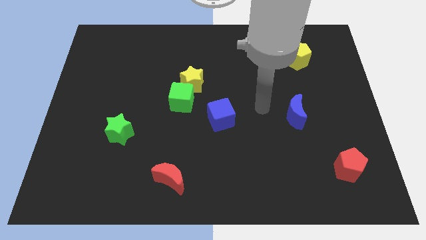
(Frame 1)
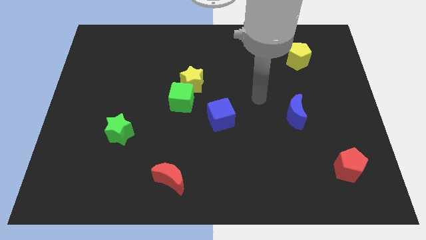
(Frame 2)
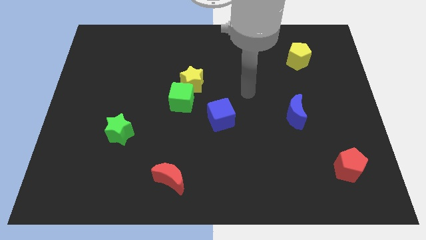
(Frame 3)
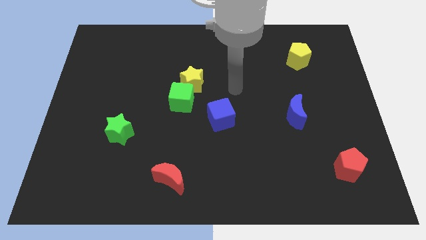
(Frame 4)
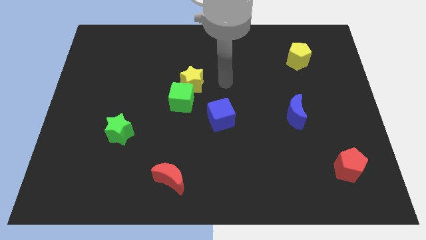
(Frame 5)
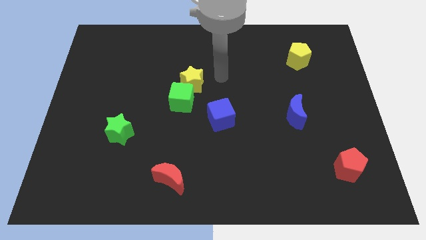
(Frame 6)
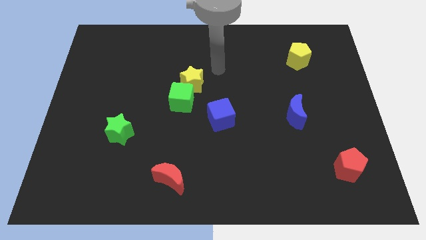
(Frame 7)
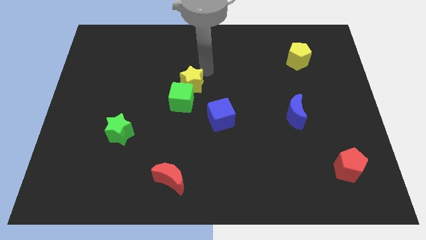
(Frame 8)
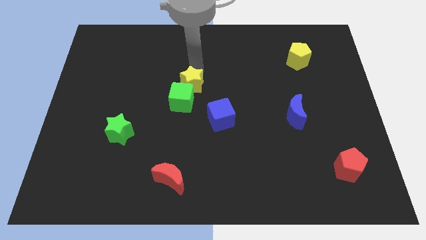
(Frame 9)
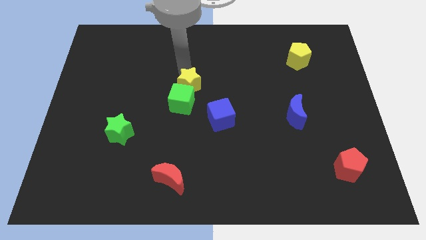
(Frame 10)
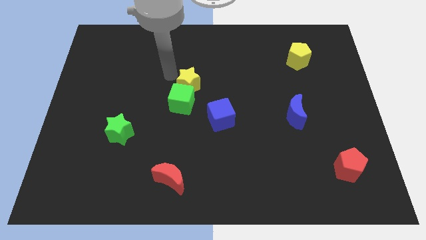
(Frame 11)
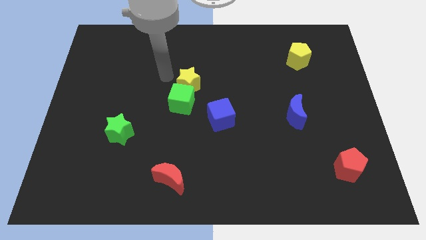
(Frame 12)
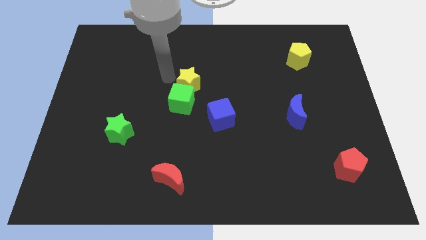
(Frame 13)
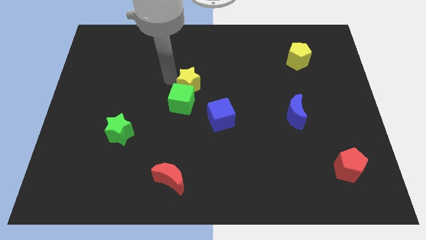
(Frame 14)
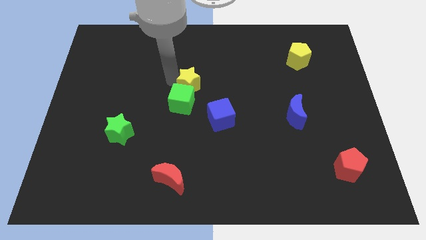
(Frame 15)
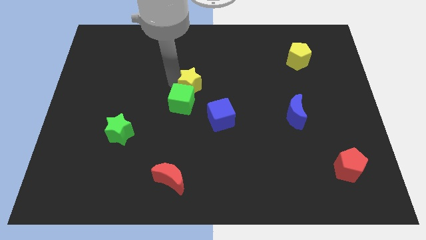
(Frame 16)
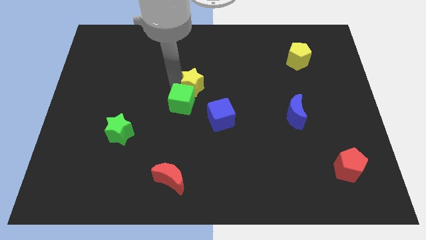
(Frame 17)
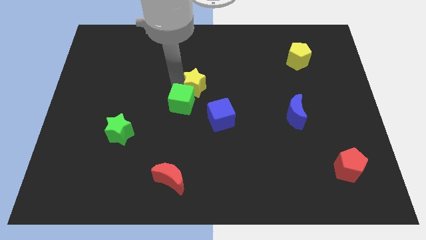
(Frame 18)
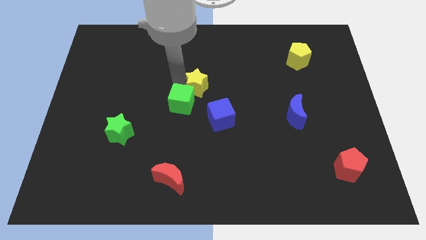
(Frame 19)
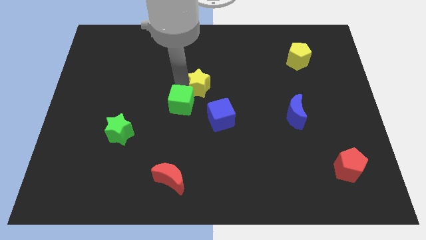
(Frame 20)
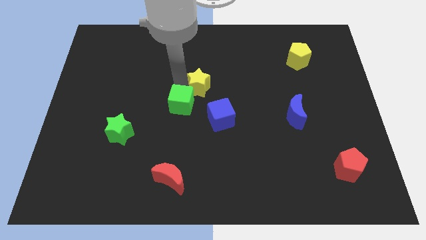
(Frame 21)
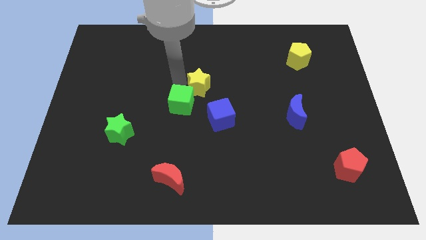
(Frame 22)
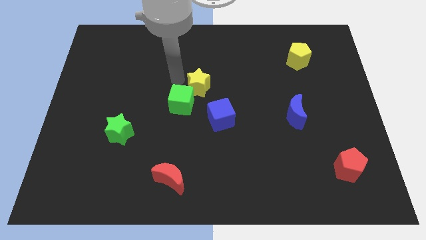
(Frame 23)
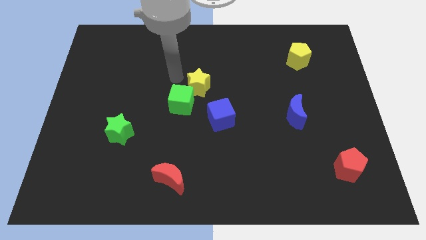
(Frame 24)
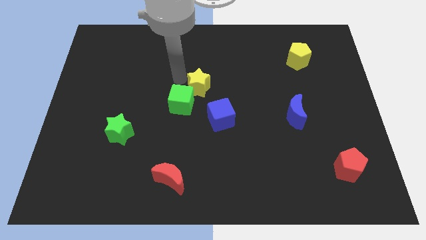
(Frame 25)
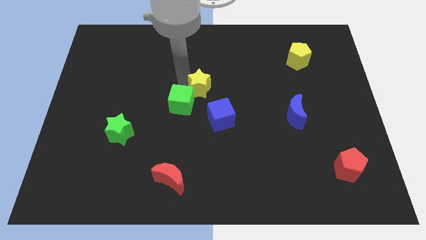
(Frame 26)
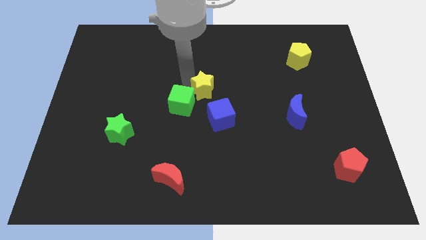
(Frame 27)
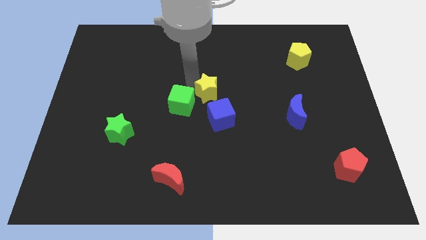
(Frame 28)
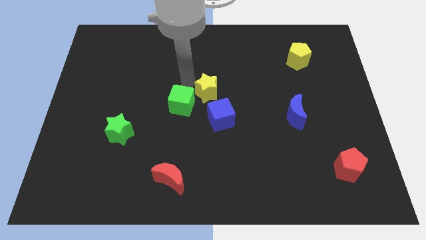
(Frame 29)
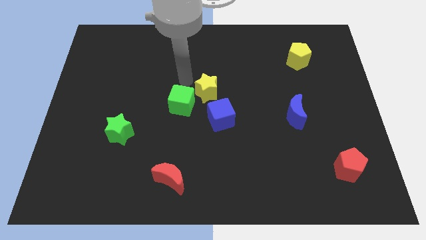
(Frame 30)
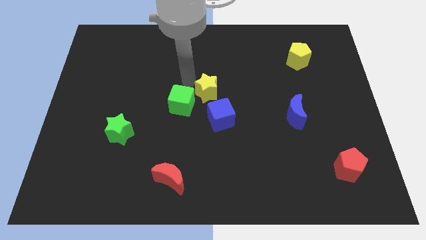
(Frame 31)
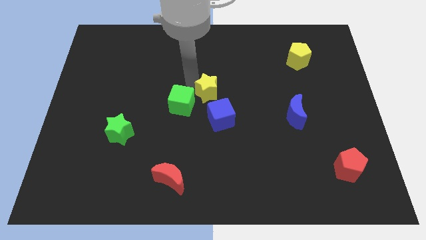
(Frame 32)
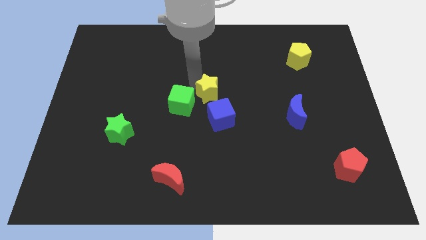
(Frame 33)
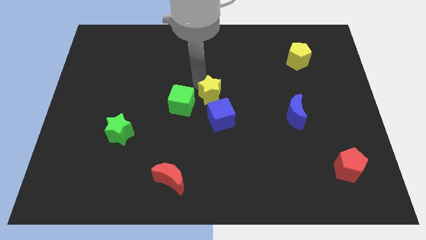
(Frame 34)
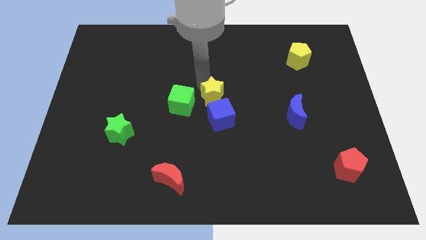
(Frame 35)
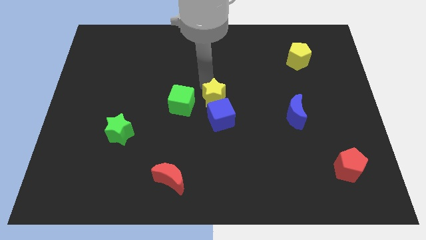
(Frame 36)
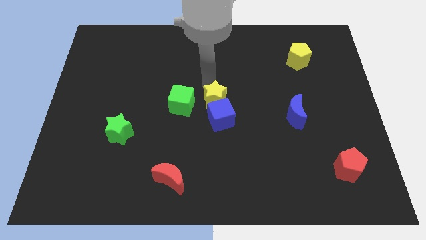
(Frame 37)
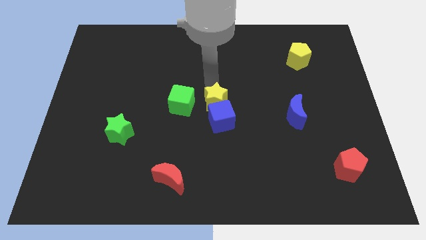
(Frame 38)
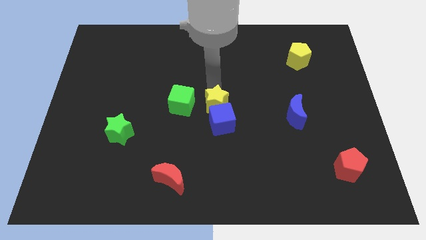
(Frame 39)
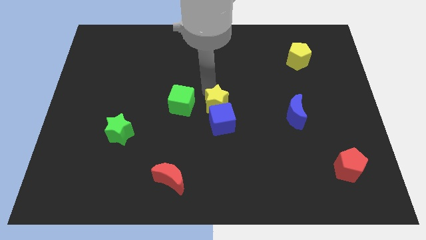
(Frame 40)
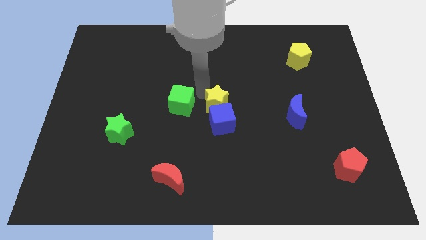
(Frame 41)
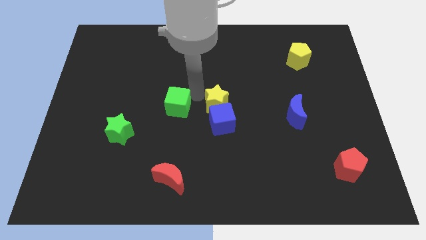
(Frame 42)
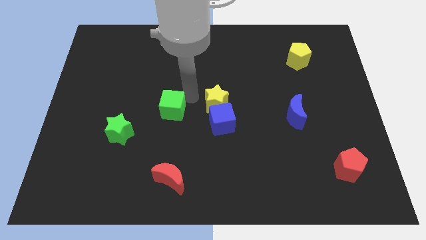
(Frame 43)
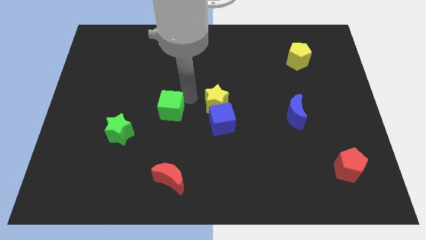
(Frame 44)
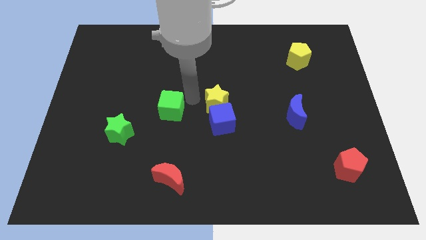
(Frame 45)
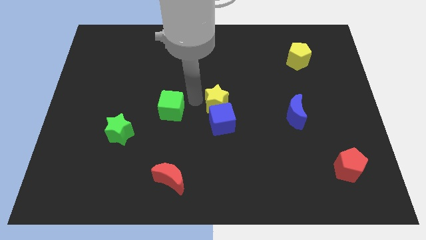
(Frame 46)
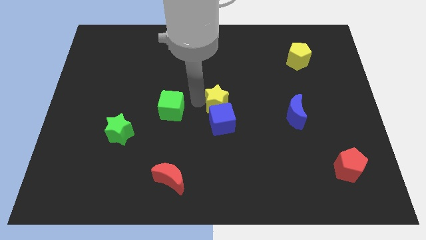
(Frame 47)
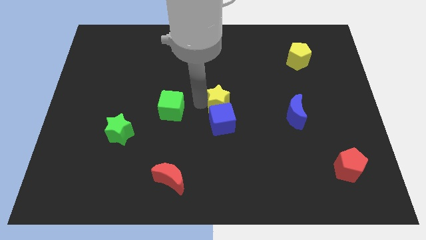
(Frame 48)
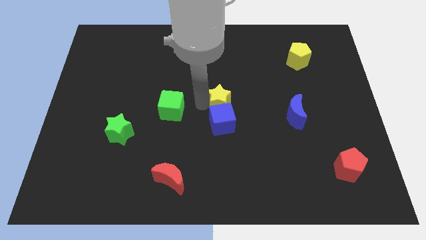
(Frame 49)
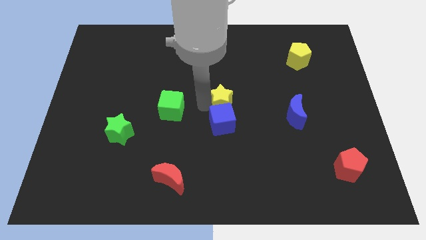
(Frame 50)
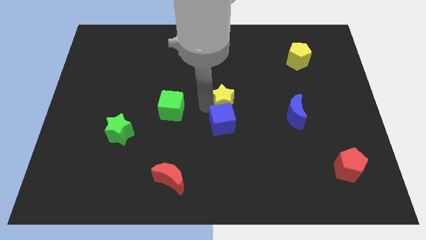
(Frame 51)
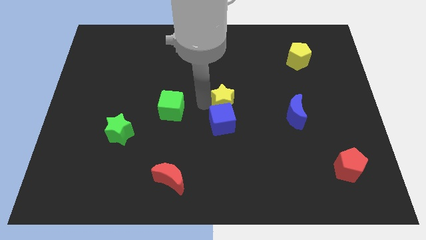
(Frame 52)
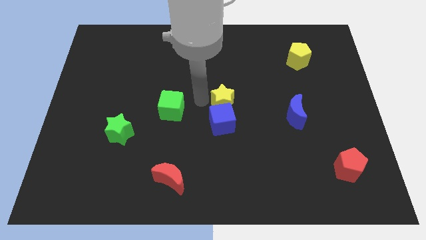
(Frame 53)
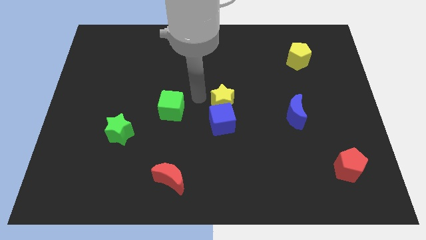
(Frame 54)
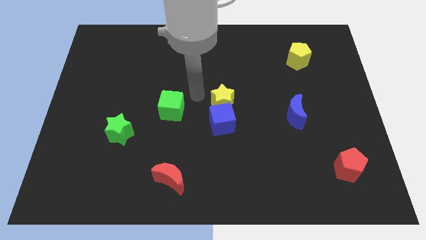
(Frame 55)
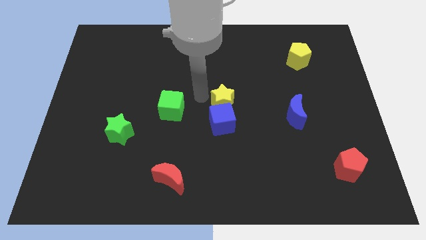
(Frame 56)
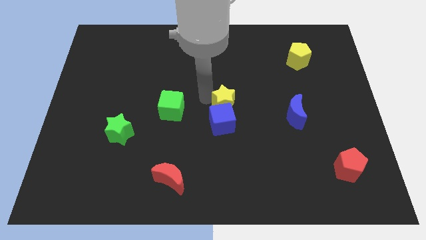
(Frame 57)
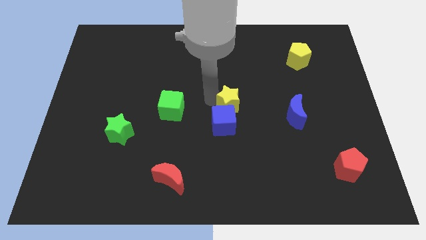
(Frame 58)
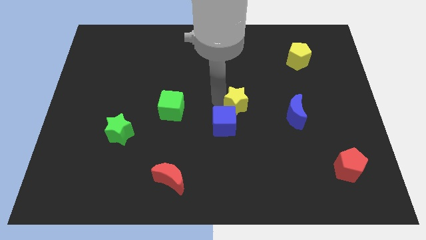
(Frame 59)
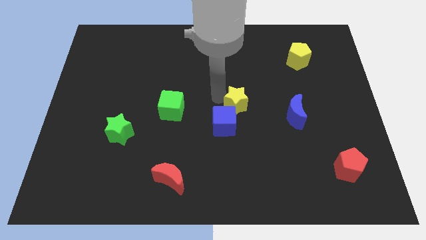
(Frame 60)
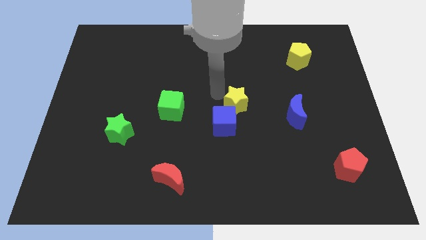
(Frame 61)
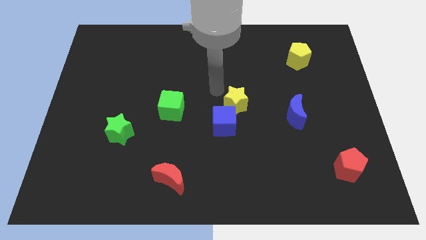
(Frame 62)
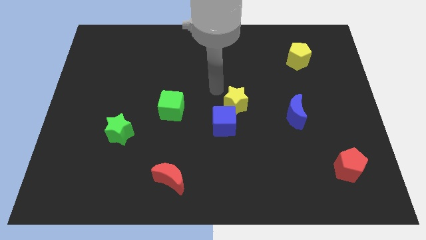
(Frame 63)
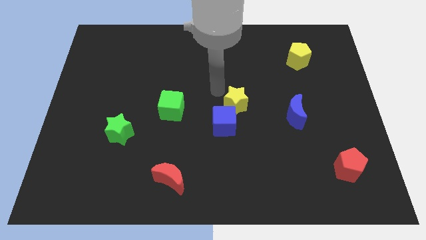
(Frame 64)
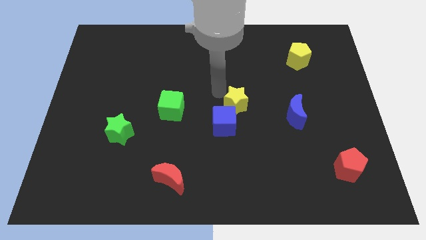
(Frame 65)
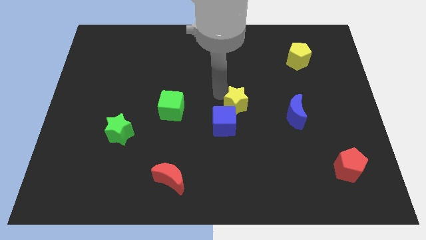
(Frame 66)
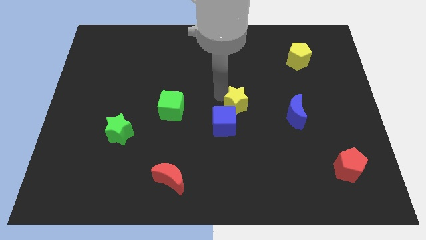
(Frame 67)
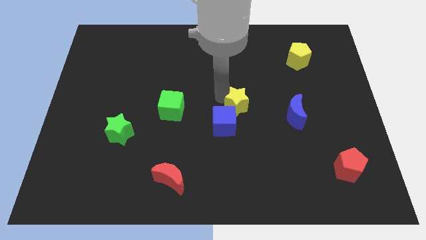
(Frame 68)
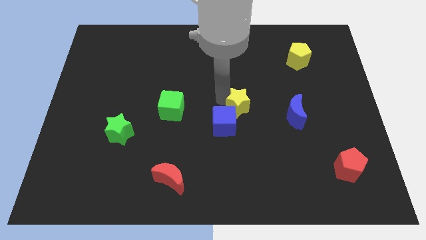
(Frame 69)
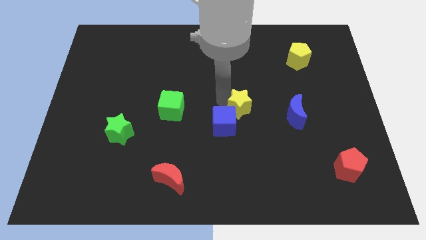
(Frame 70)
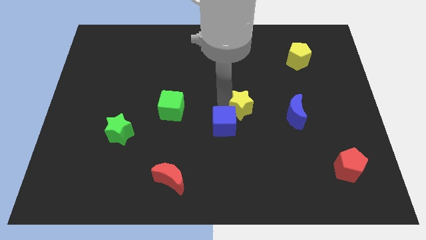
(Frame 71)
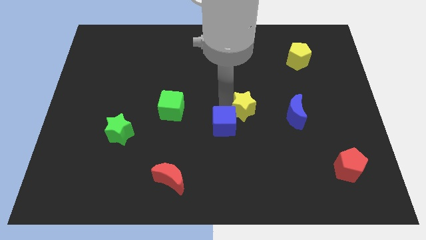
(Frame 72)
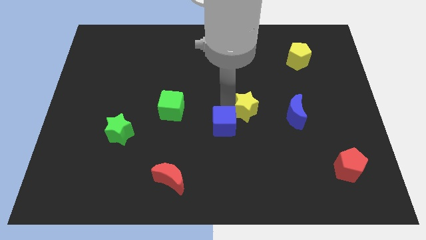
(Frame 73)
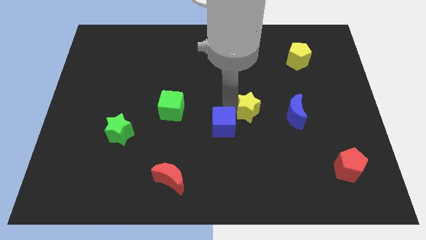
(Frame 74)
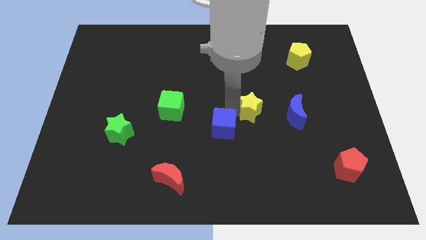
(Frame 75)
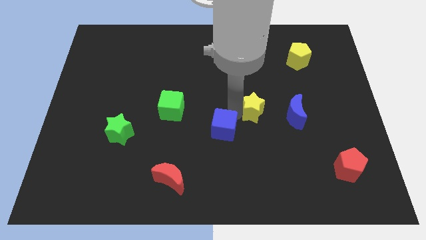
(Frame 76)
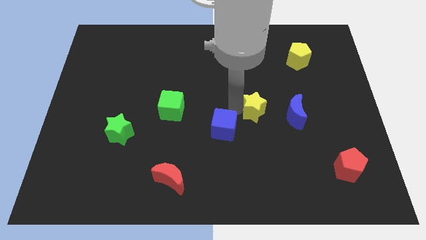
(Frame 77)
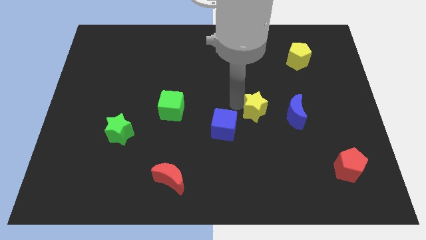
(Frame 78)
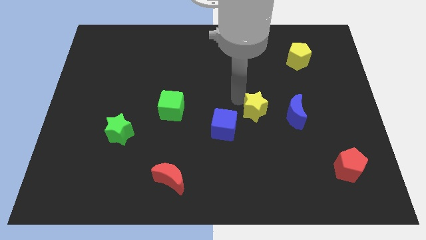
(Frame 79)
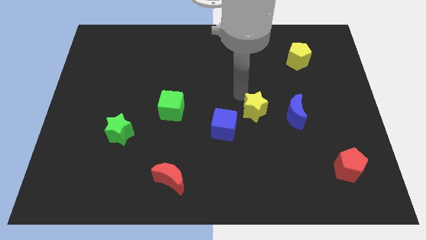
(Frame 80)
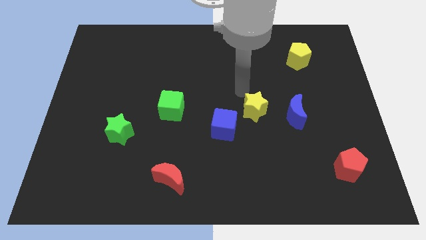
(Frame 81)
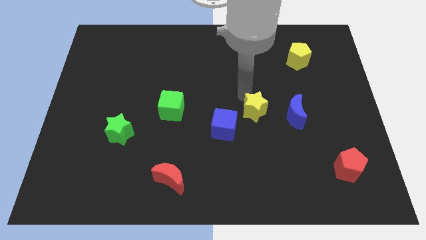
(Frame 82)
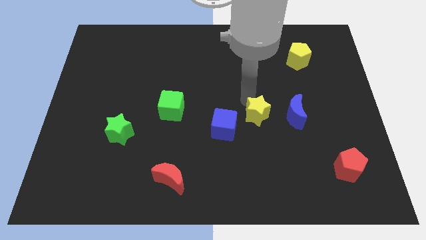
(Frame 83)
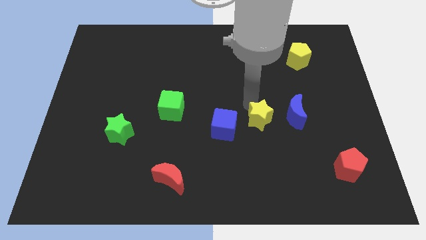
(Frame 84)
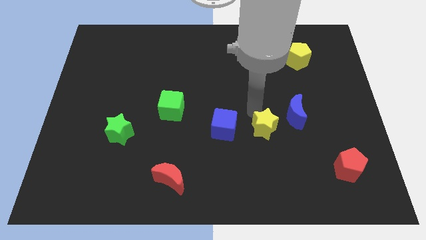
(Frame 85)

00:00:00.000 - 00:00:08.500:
slide the yellow star downwards and to the right diagonally
